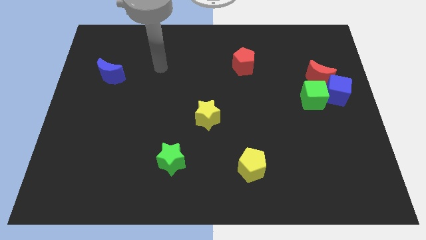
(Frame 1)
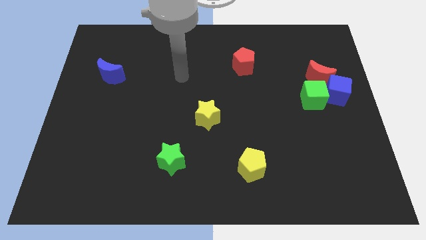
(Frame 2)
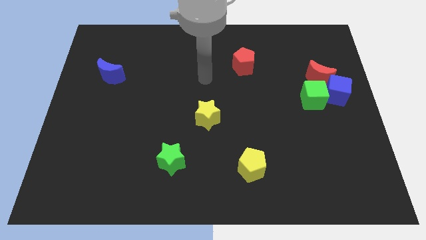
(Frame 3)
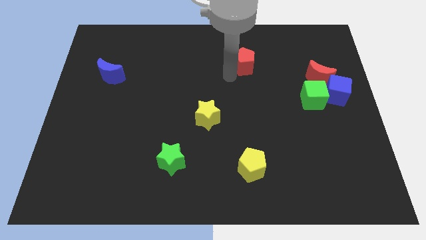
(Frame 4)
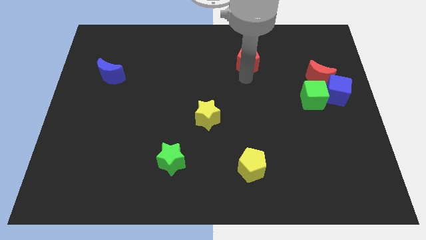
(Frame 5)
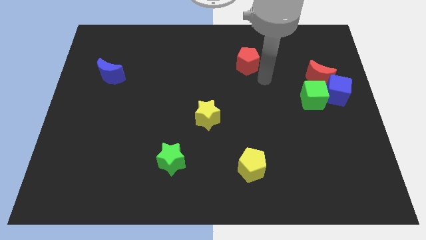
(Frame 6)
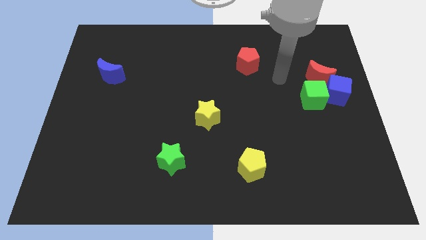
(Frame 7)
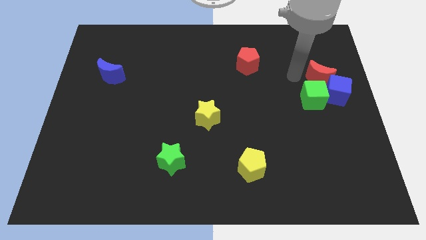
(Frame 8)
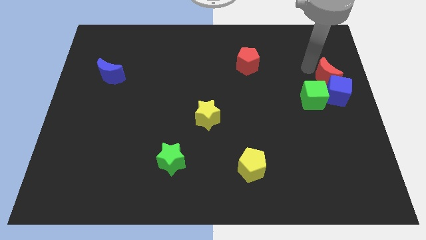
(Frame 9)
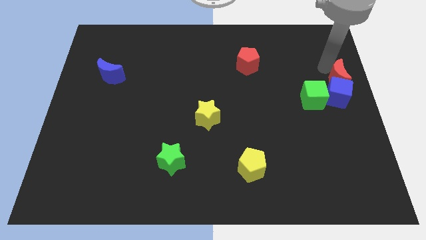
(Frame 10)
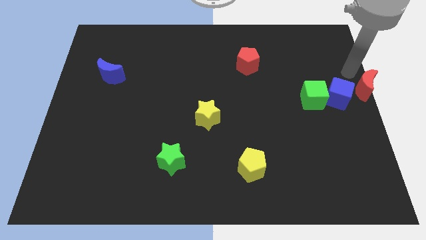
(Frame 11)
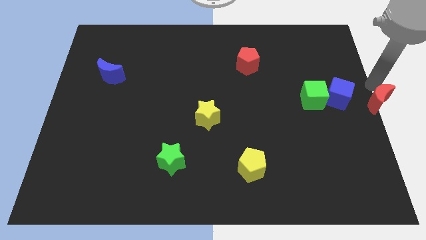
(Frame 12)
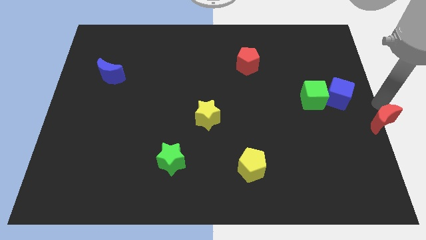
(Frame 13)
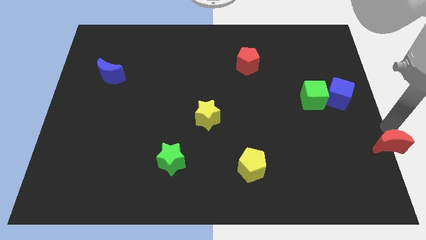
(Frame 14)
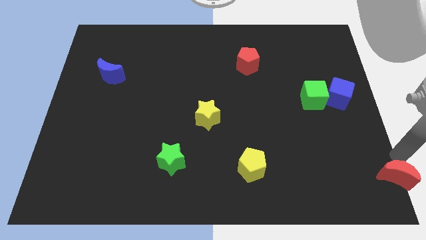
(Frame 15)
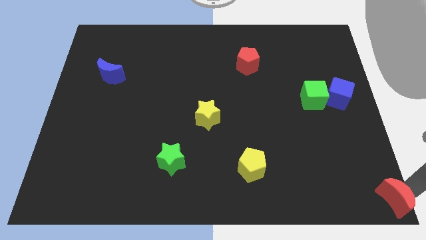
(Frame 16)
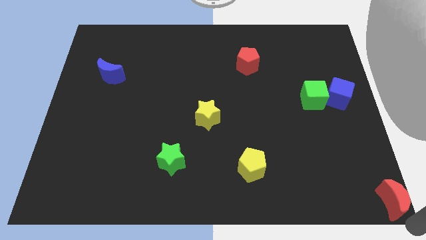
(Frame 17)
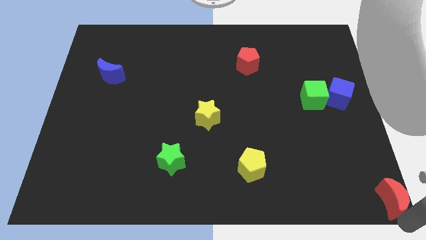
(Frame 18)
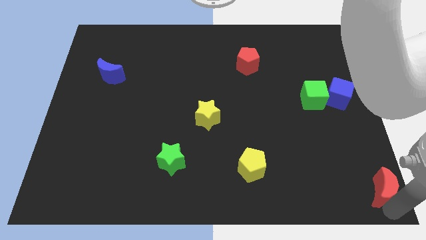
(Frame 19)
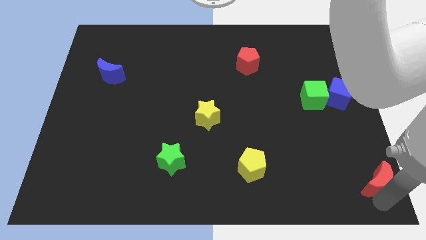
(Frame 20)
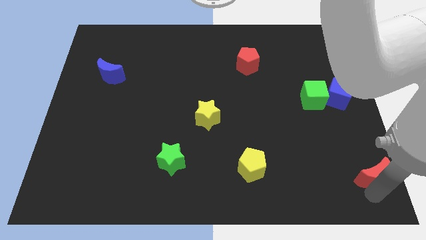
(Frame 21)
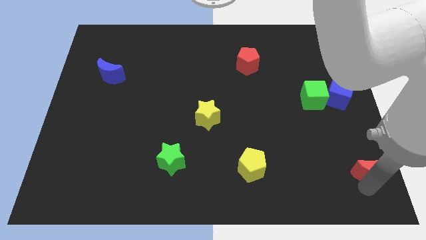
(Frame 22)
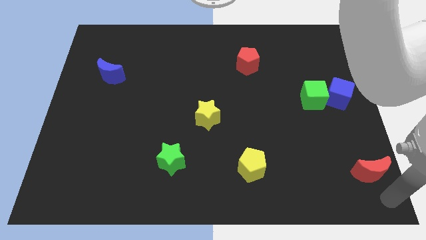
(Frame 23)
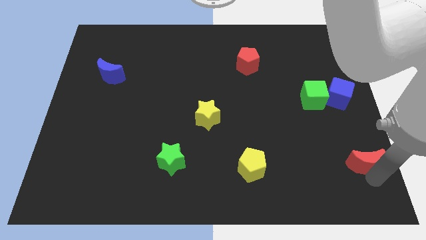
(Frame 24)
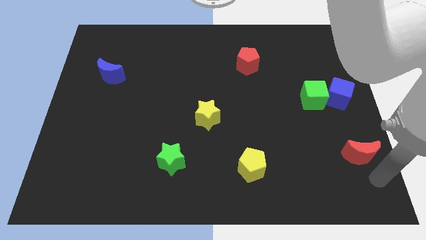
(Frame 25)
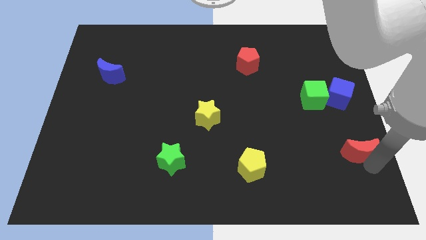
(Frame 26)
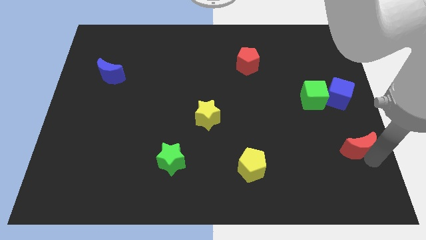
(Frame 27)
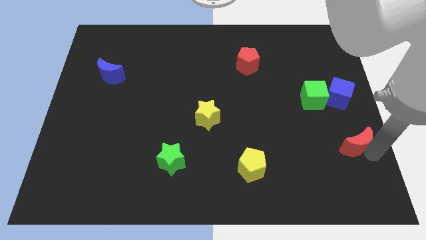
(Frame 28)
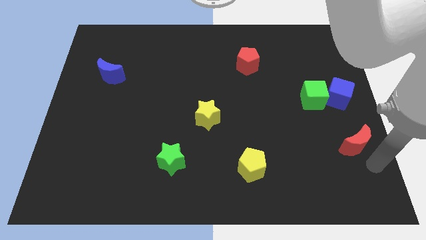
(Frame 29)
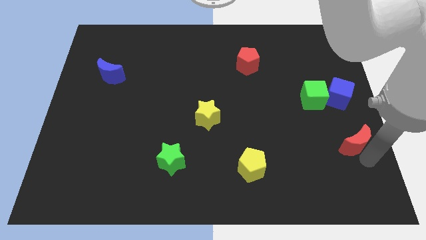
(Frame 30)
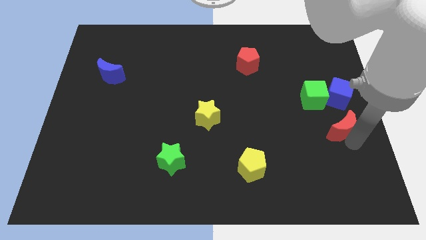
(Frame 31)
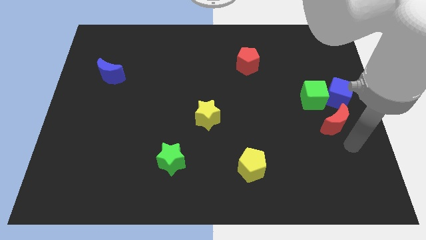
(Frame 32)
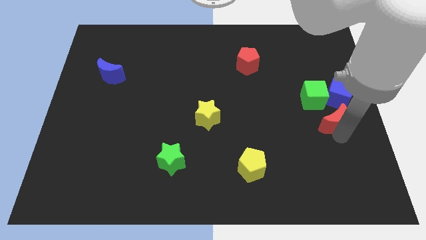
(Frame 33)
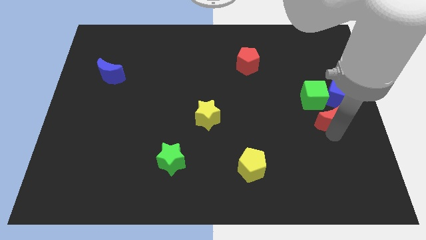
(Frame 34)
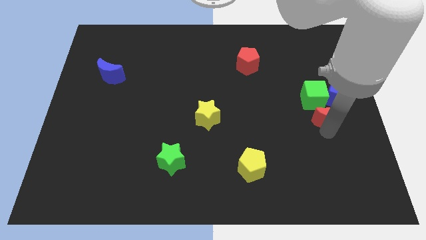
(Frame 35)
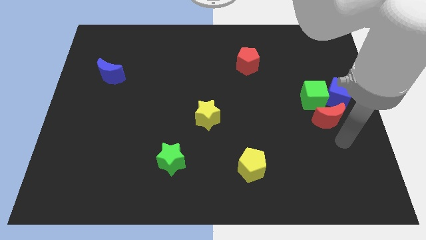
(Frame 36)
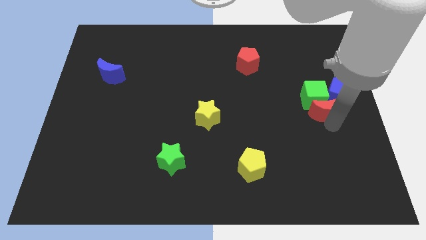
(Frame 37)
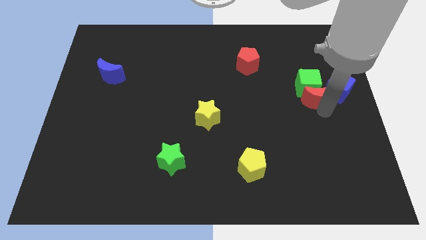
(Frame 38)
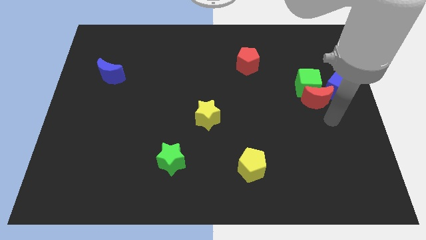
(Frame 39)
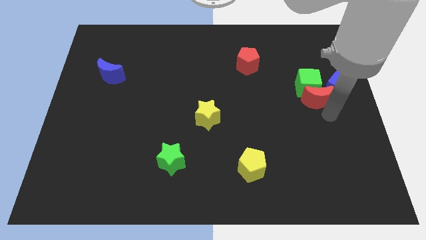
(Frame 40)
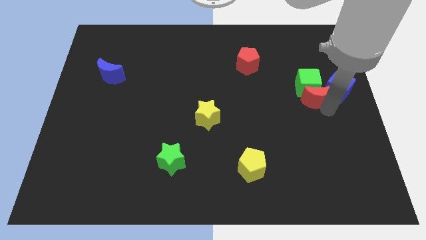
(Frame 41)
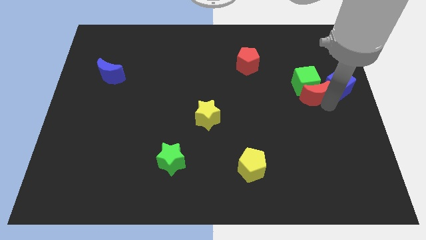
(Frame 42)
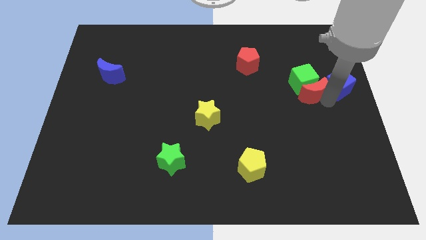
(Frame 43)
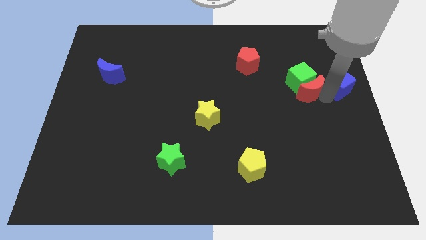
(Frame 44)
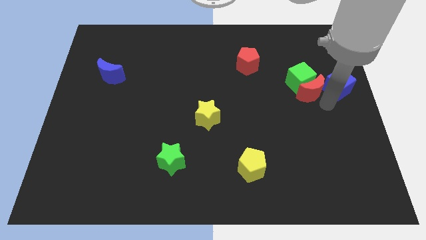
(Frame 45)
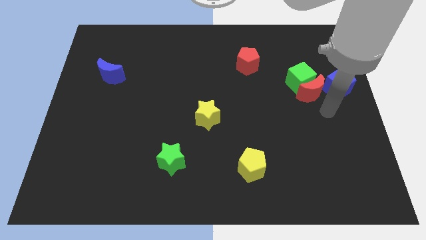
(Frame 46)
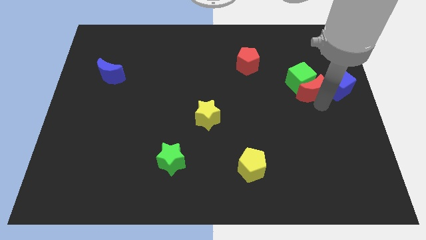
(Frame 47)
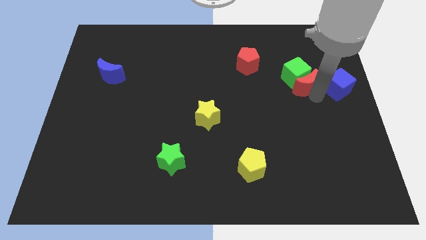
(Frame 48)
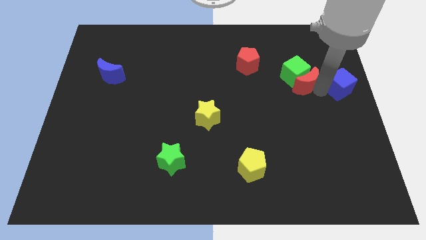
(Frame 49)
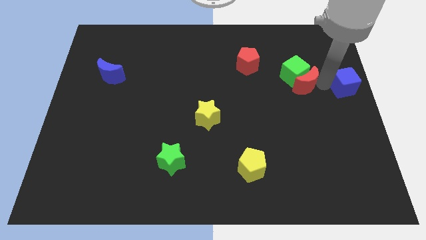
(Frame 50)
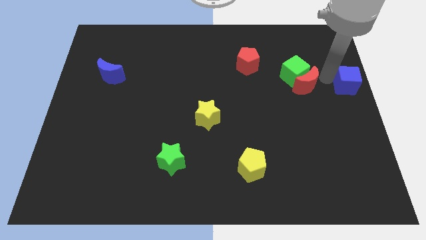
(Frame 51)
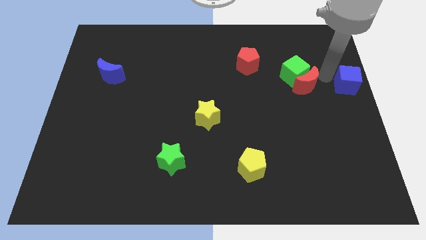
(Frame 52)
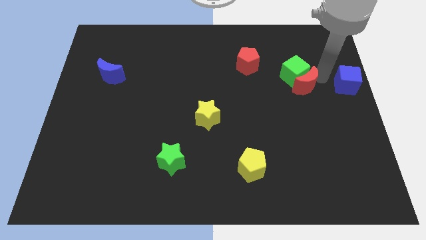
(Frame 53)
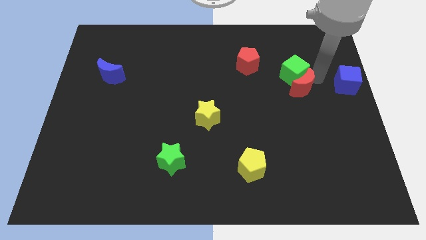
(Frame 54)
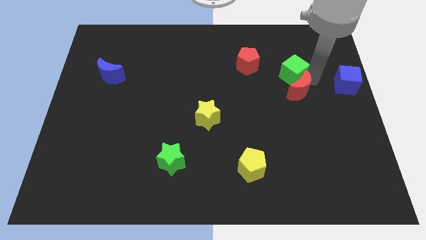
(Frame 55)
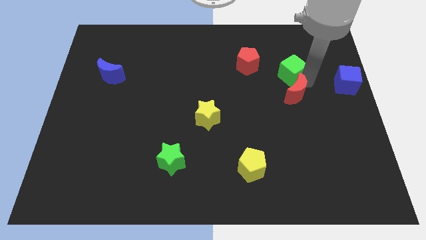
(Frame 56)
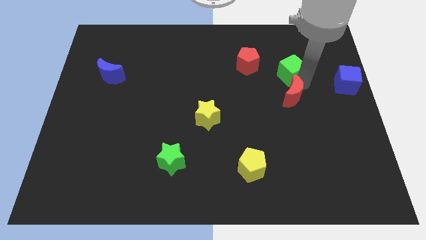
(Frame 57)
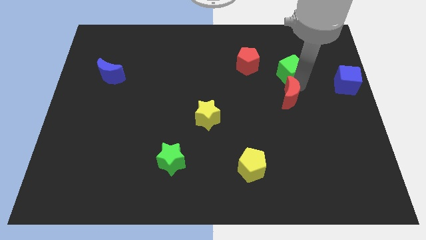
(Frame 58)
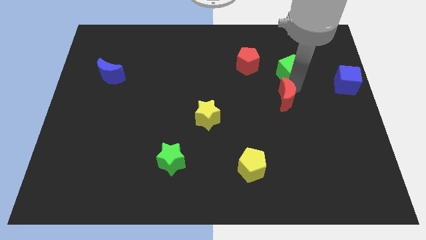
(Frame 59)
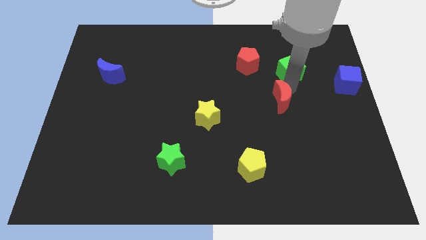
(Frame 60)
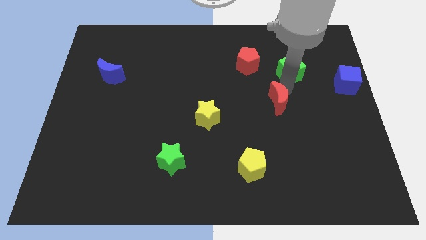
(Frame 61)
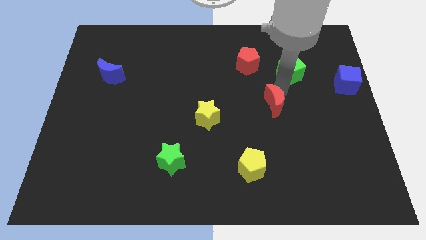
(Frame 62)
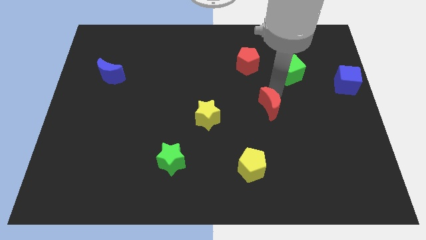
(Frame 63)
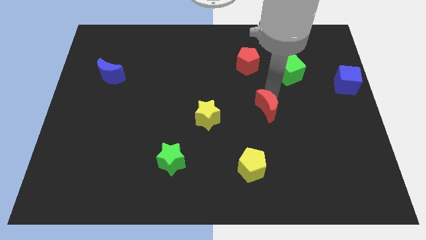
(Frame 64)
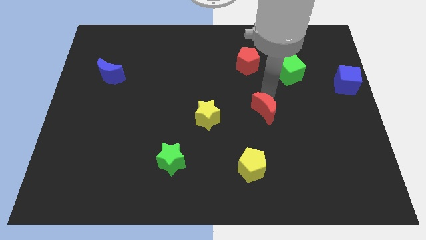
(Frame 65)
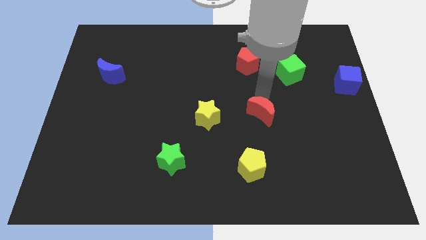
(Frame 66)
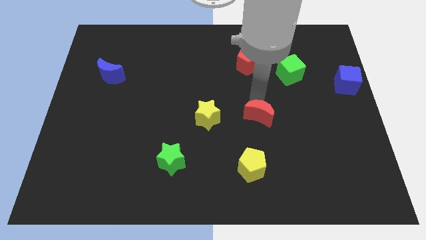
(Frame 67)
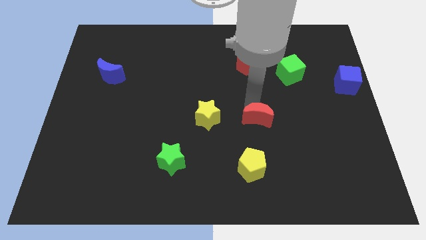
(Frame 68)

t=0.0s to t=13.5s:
move the red moon down and to the left diagonally

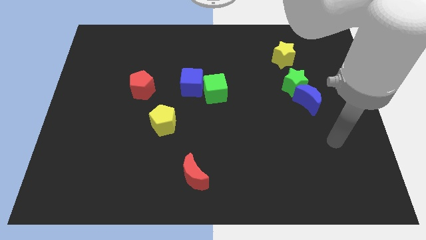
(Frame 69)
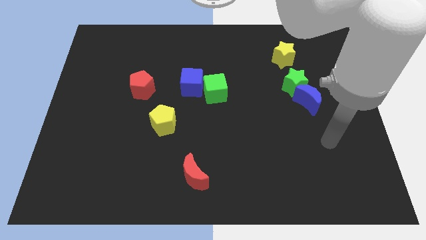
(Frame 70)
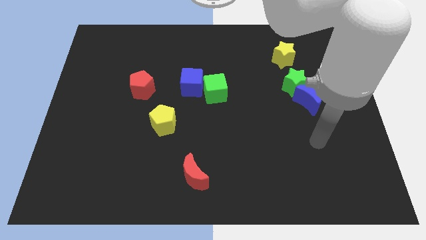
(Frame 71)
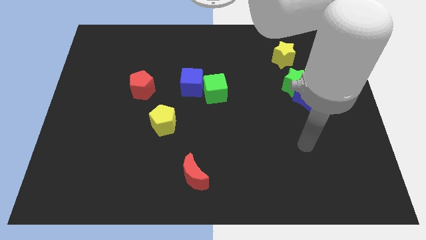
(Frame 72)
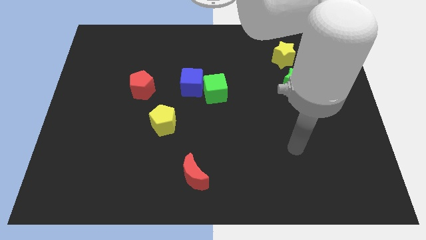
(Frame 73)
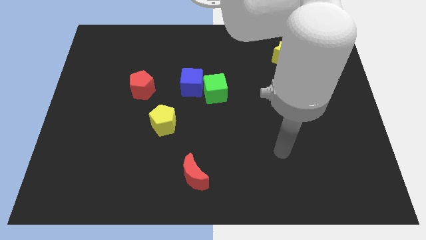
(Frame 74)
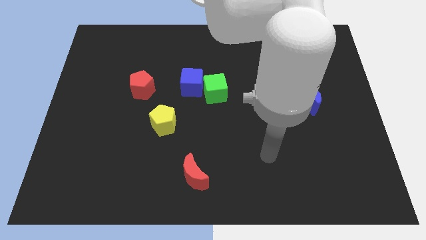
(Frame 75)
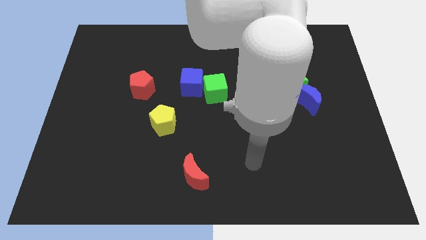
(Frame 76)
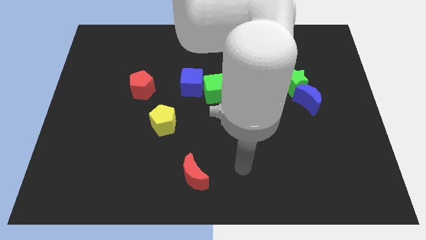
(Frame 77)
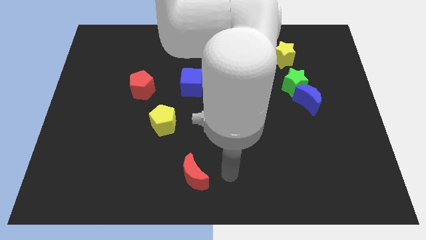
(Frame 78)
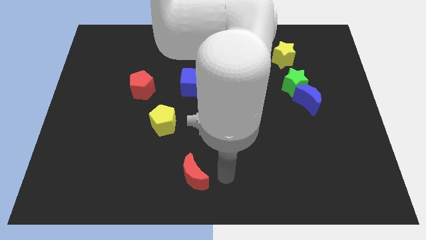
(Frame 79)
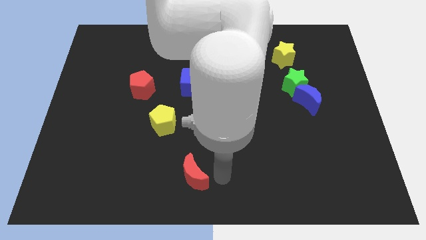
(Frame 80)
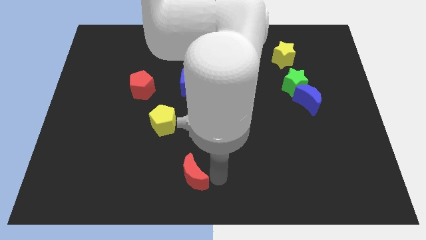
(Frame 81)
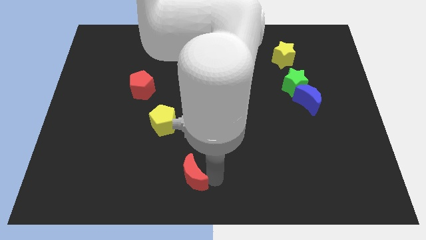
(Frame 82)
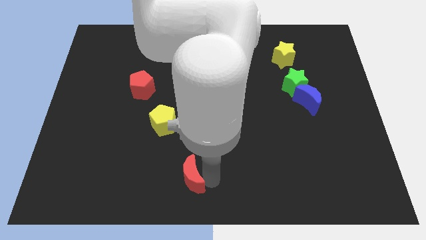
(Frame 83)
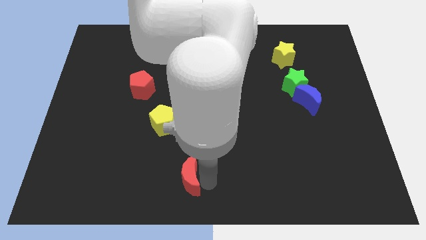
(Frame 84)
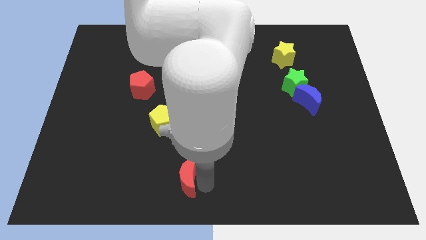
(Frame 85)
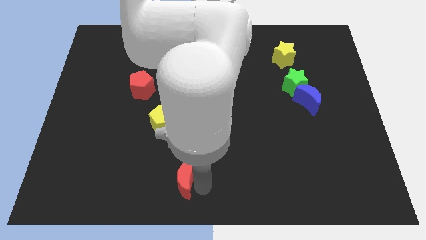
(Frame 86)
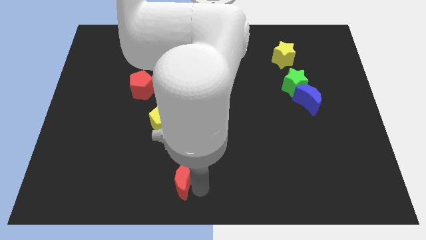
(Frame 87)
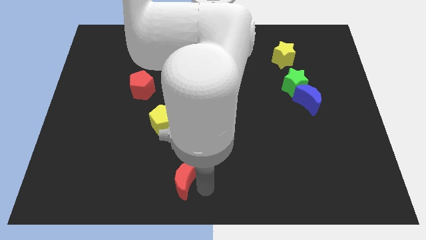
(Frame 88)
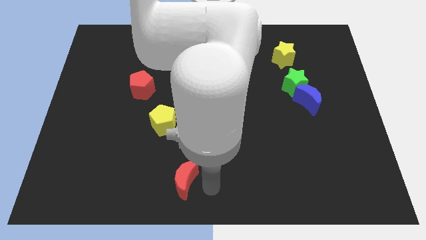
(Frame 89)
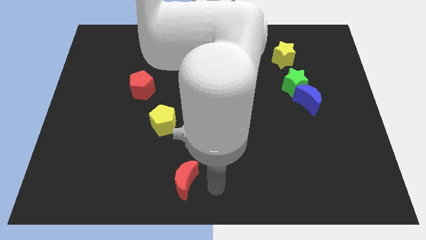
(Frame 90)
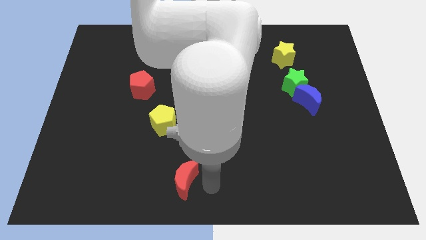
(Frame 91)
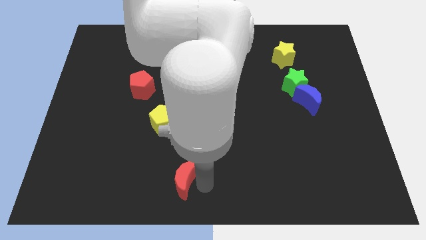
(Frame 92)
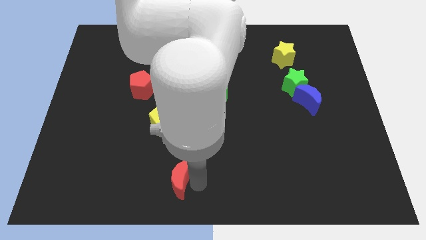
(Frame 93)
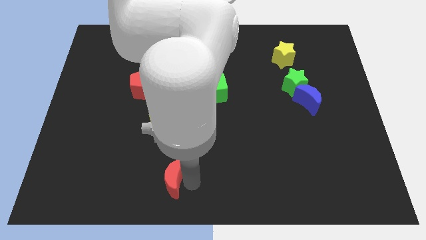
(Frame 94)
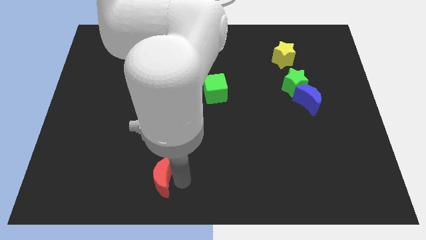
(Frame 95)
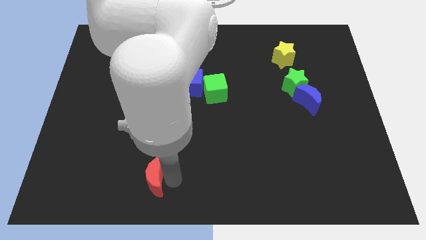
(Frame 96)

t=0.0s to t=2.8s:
push the red moon to the left a bit
